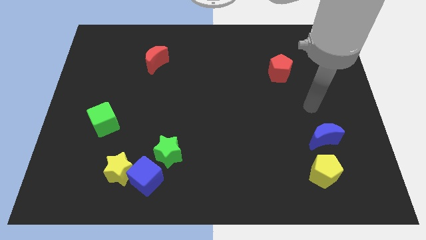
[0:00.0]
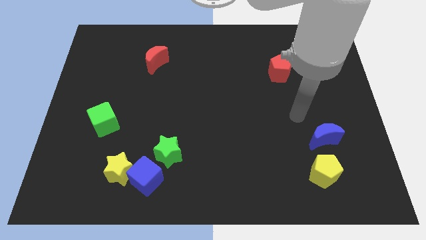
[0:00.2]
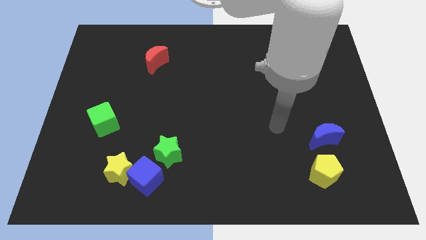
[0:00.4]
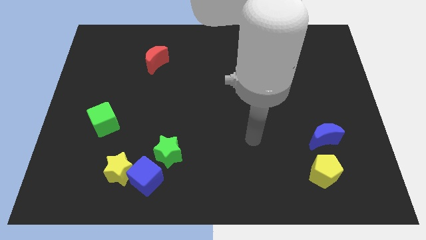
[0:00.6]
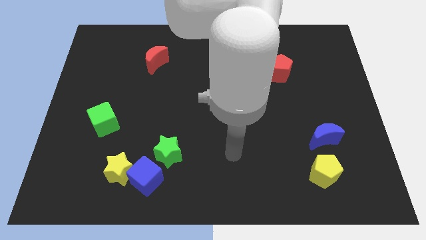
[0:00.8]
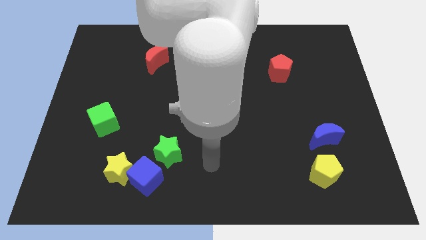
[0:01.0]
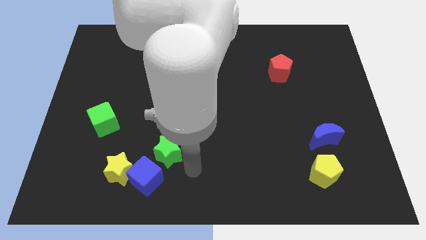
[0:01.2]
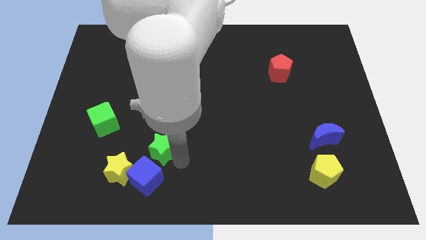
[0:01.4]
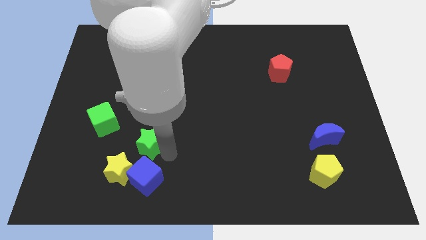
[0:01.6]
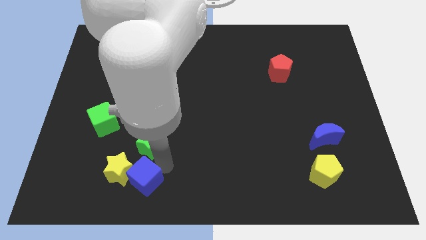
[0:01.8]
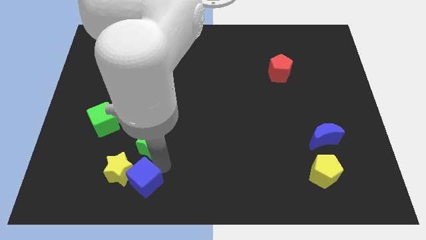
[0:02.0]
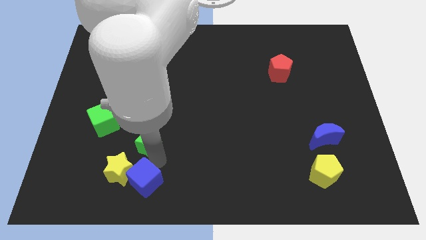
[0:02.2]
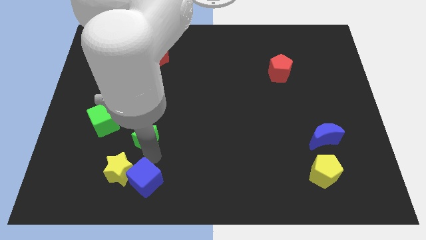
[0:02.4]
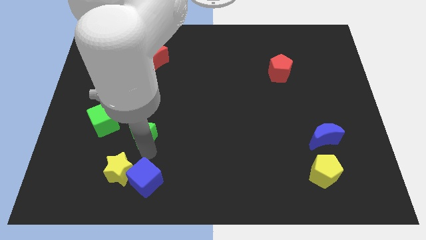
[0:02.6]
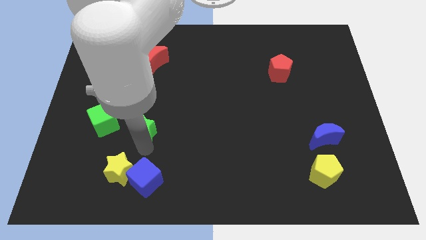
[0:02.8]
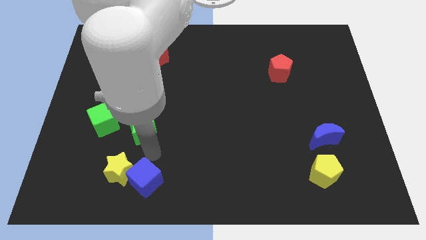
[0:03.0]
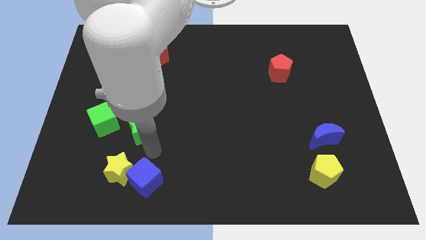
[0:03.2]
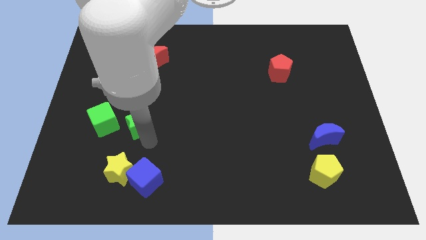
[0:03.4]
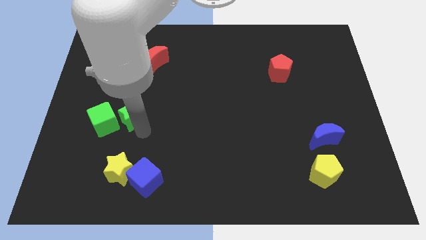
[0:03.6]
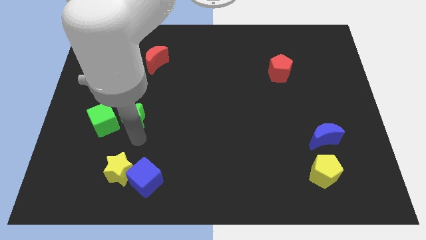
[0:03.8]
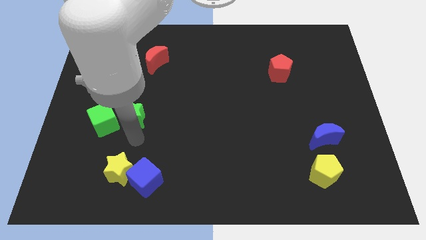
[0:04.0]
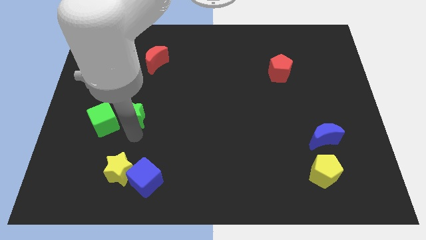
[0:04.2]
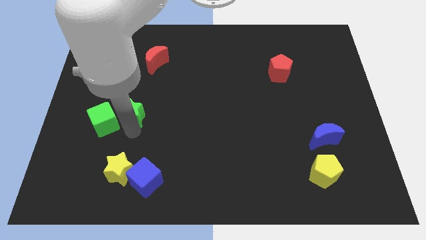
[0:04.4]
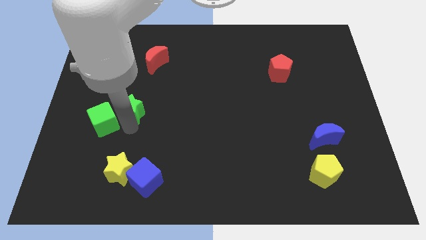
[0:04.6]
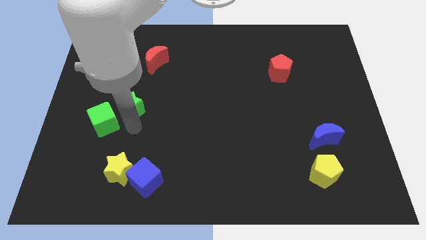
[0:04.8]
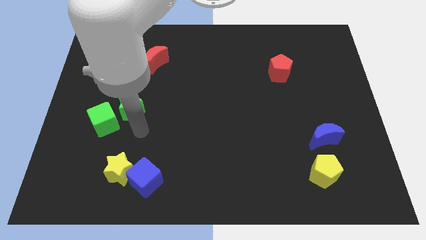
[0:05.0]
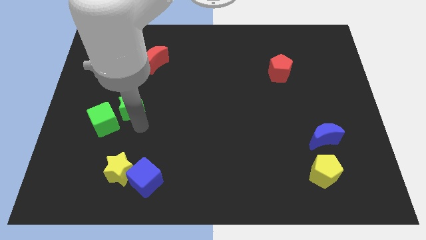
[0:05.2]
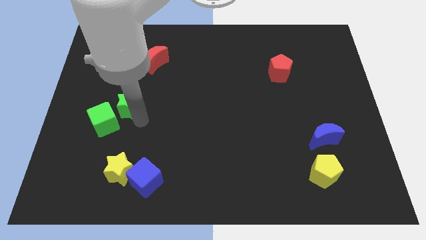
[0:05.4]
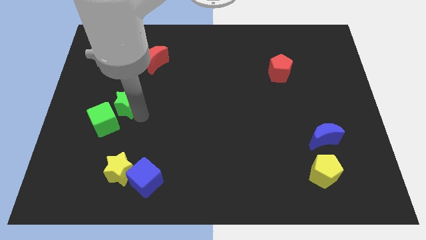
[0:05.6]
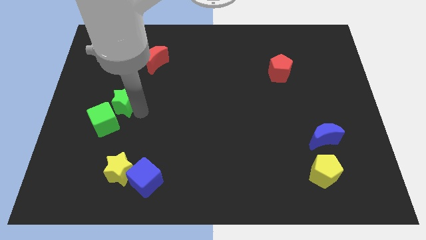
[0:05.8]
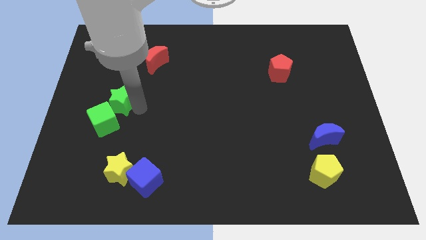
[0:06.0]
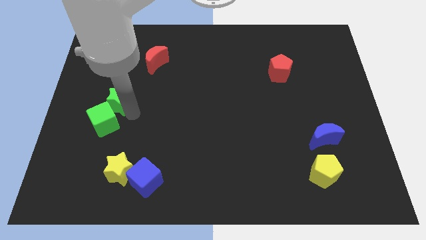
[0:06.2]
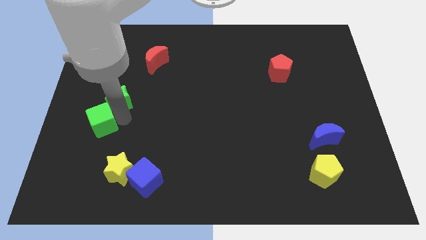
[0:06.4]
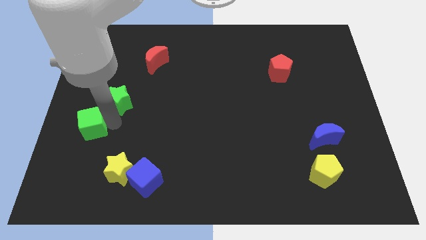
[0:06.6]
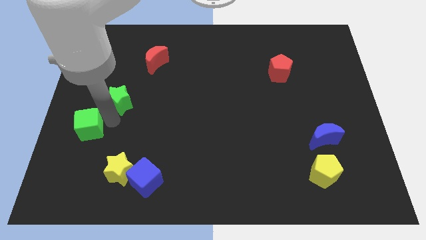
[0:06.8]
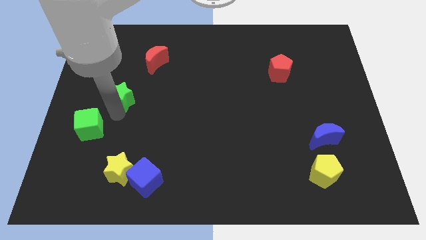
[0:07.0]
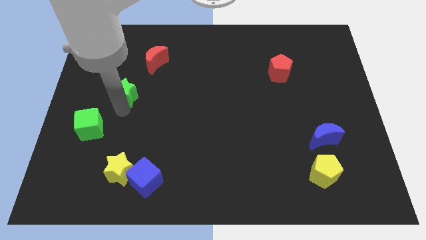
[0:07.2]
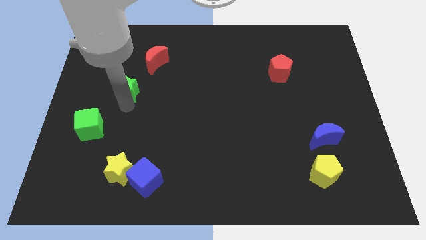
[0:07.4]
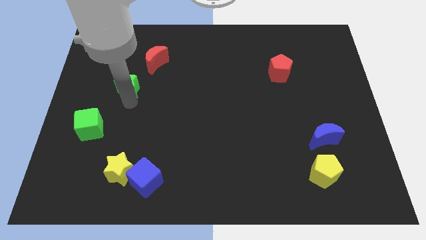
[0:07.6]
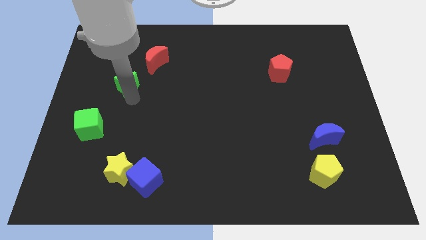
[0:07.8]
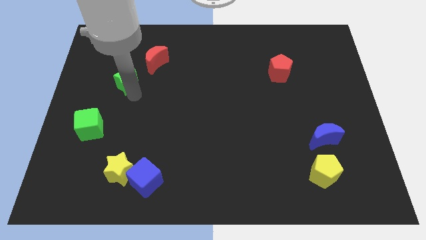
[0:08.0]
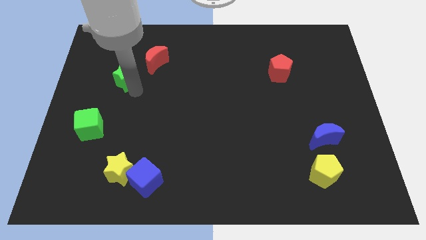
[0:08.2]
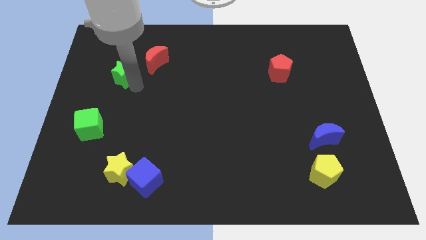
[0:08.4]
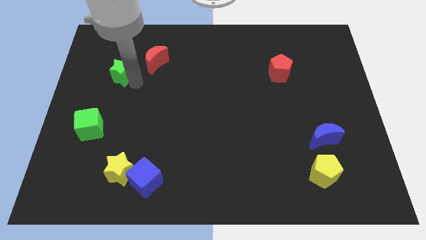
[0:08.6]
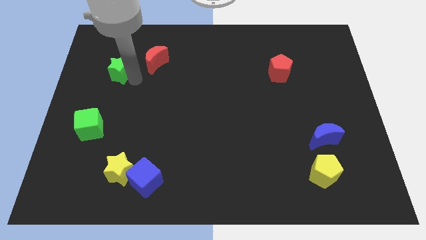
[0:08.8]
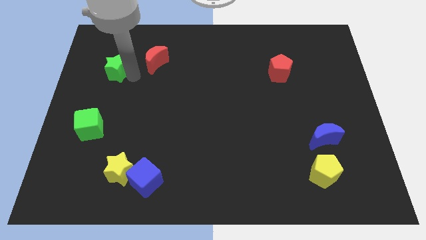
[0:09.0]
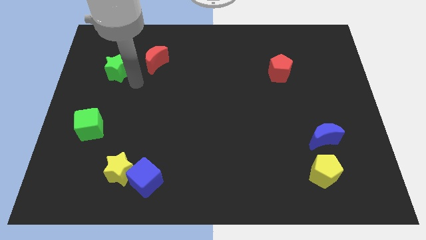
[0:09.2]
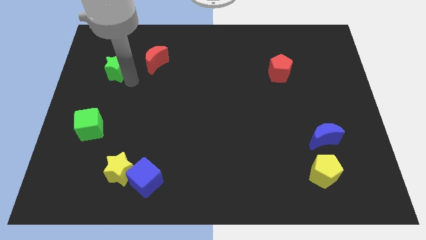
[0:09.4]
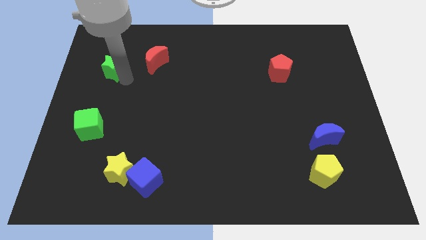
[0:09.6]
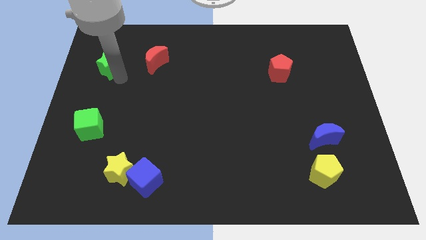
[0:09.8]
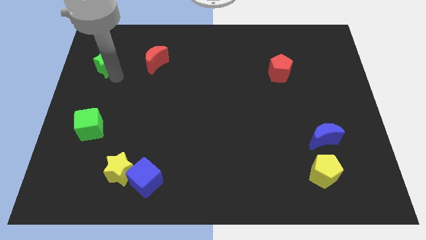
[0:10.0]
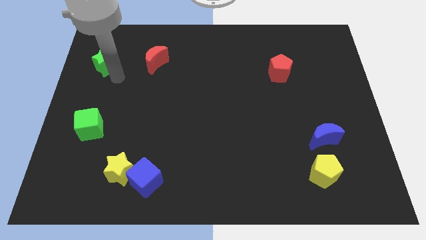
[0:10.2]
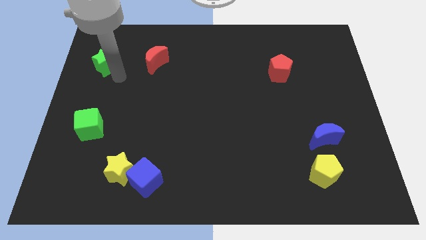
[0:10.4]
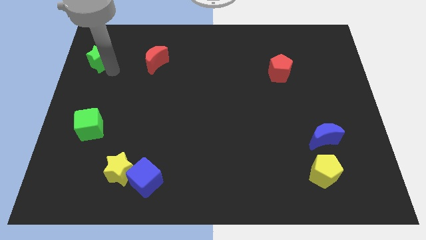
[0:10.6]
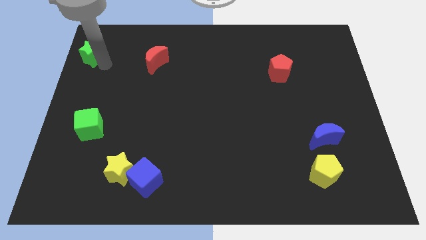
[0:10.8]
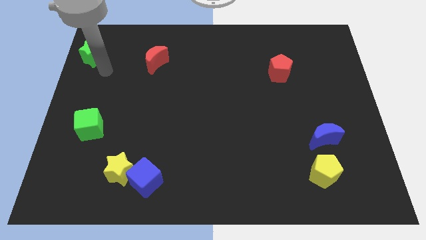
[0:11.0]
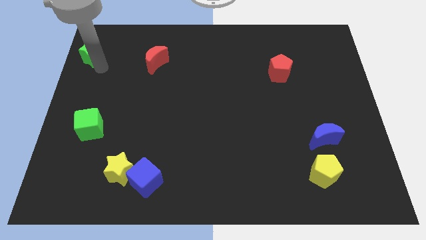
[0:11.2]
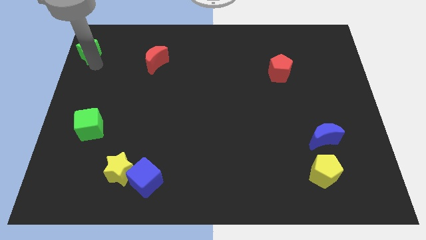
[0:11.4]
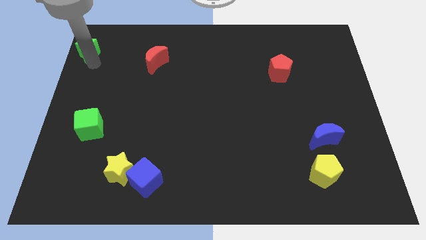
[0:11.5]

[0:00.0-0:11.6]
move the green star to the top left of the board

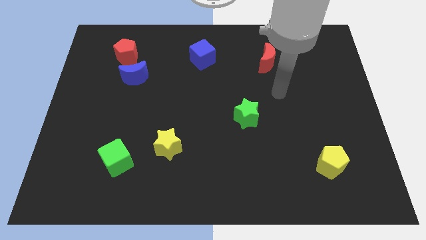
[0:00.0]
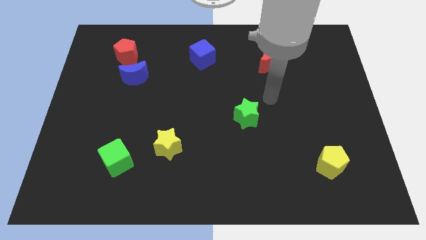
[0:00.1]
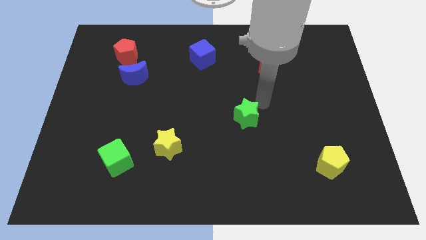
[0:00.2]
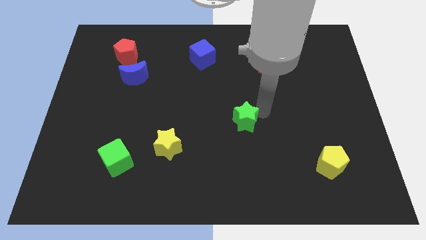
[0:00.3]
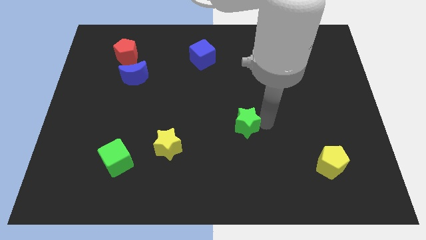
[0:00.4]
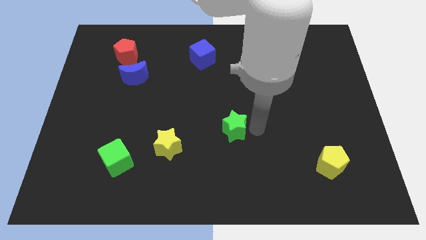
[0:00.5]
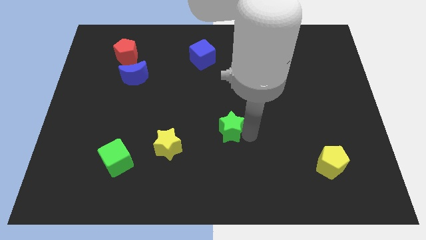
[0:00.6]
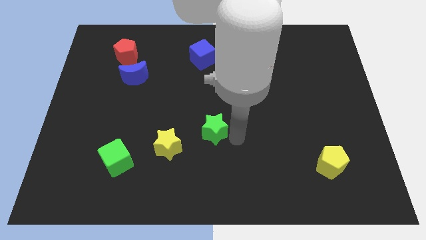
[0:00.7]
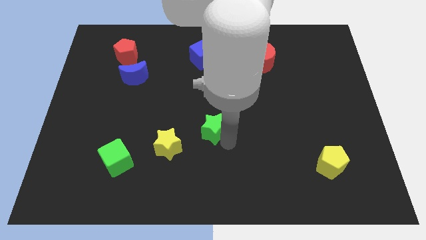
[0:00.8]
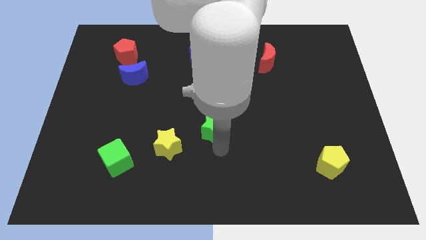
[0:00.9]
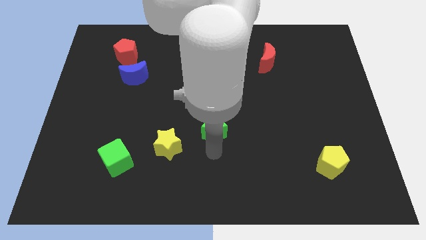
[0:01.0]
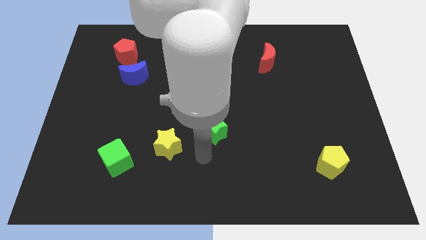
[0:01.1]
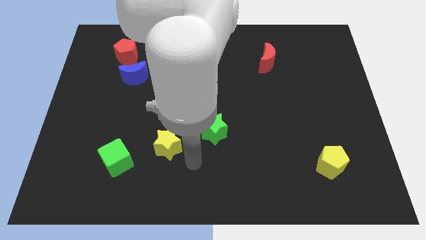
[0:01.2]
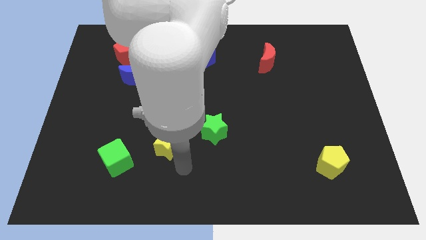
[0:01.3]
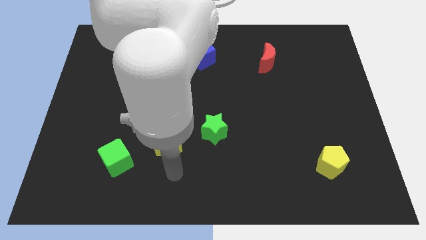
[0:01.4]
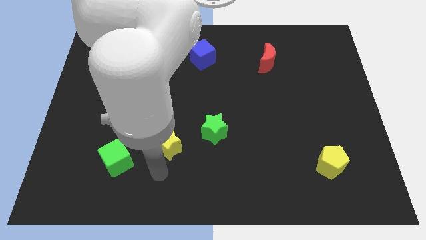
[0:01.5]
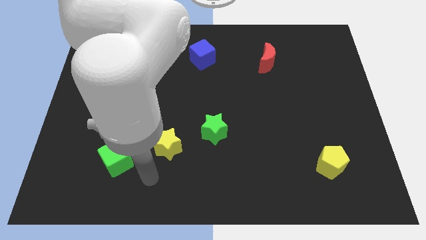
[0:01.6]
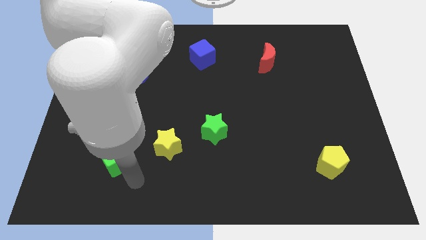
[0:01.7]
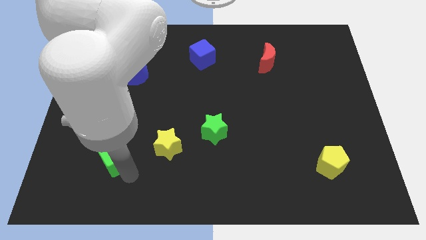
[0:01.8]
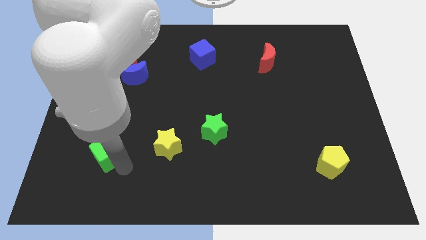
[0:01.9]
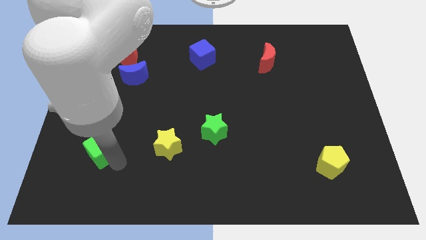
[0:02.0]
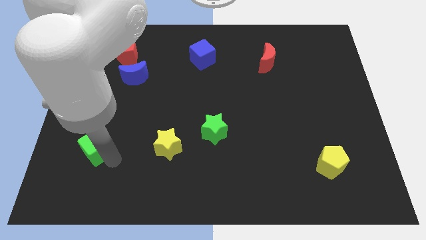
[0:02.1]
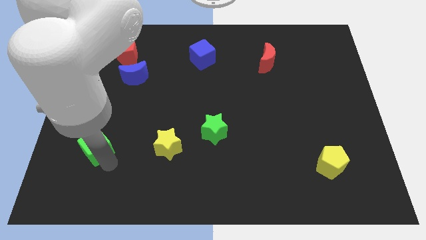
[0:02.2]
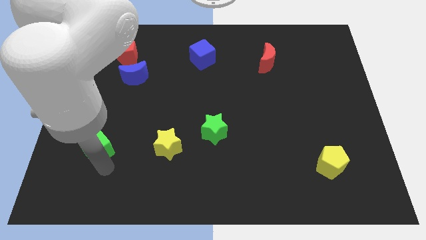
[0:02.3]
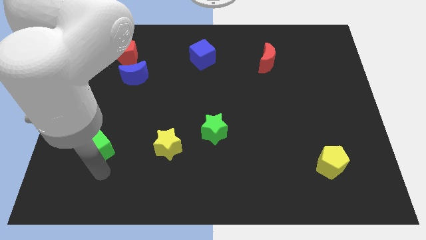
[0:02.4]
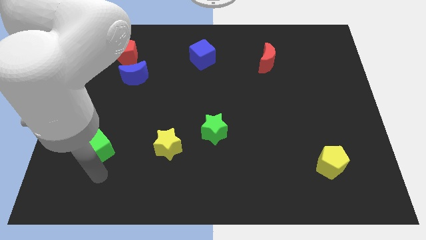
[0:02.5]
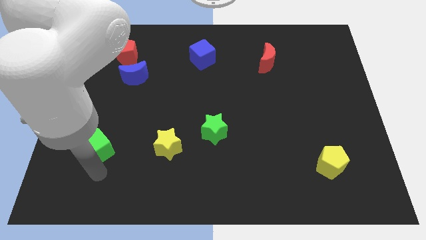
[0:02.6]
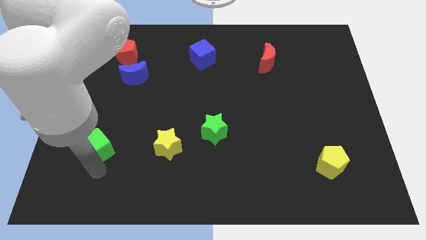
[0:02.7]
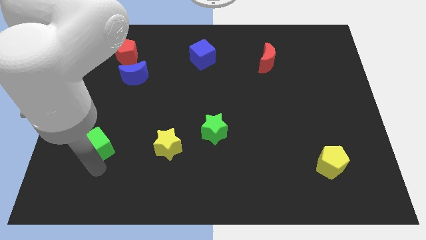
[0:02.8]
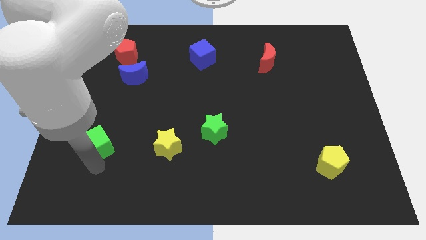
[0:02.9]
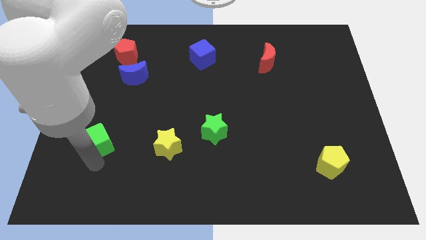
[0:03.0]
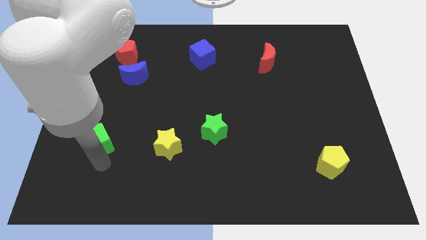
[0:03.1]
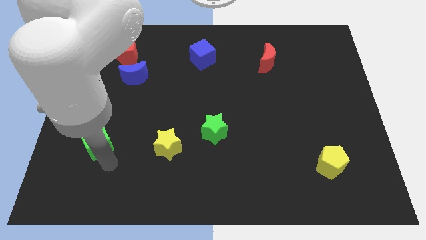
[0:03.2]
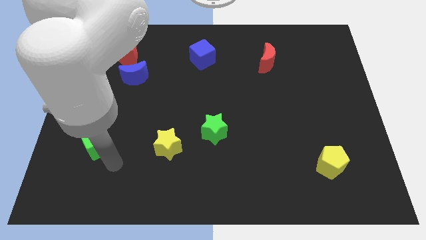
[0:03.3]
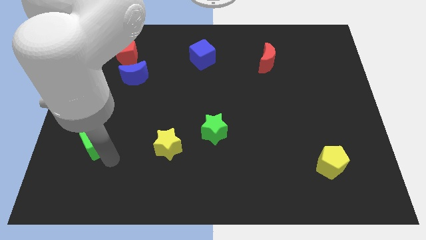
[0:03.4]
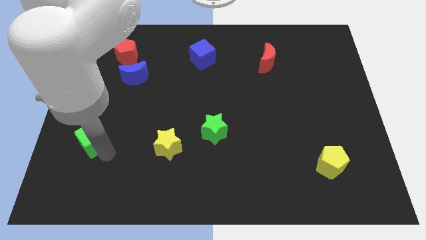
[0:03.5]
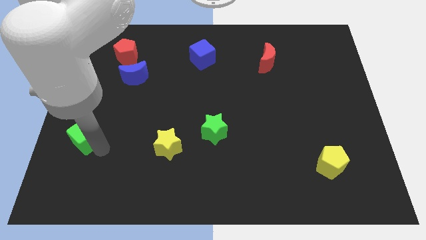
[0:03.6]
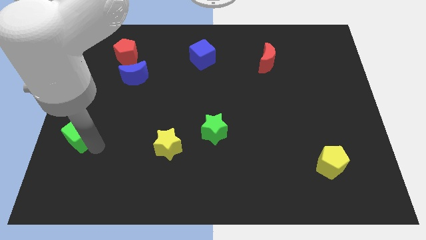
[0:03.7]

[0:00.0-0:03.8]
push the green cube to the center left
